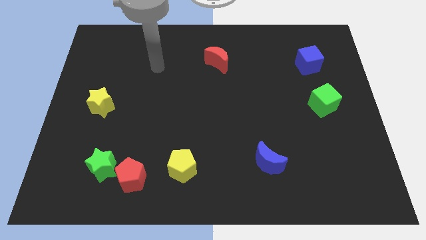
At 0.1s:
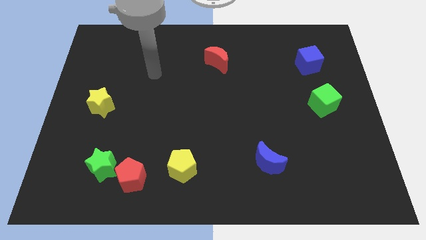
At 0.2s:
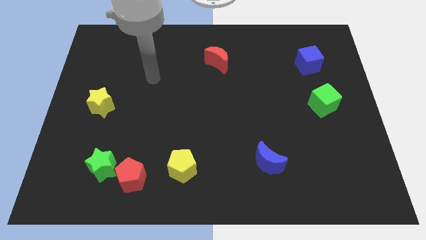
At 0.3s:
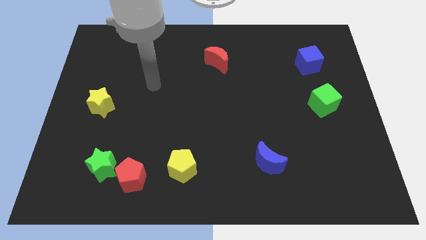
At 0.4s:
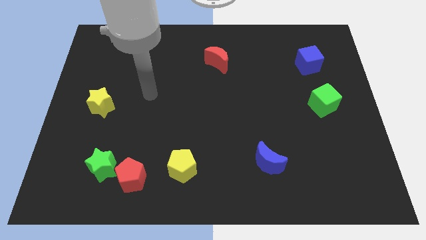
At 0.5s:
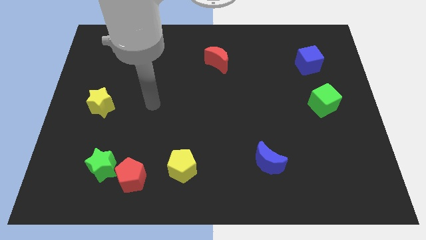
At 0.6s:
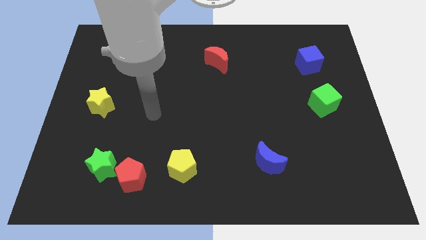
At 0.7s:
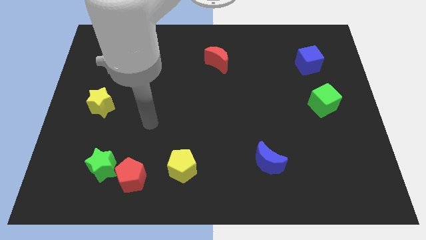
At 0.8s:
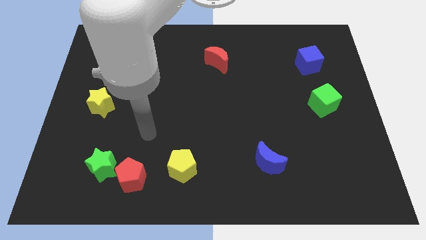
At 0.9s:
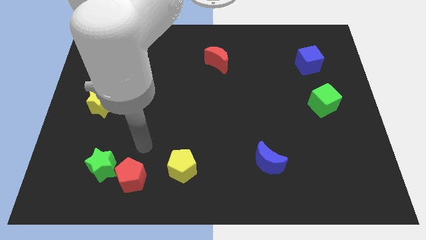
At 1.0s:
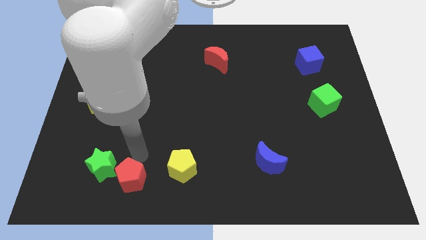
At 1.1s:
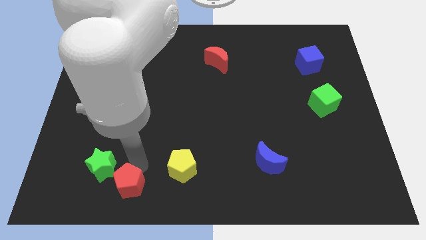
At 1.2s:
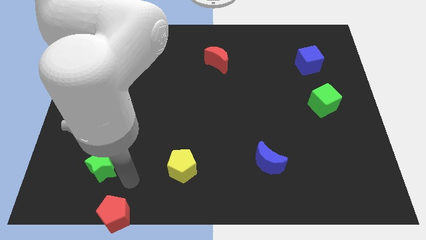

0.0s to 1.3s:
move the green star away from the red pentagon

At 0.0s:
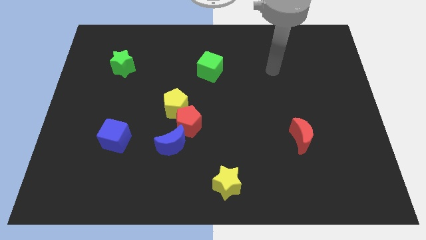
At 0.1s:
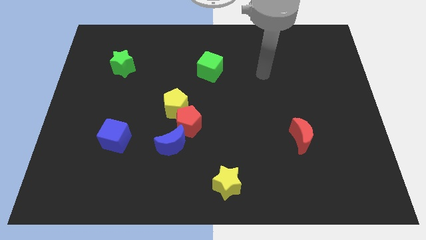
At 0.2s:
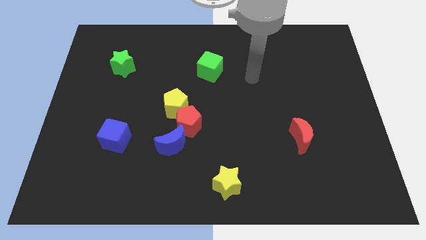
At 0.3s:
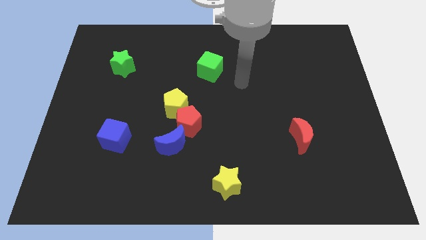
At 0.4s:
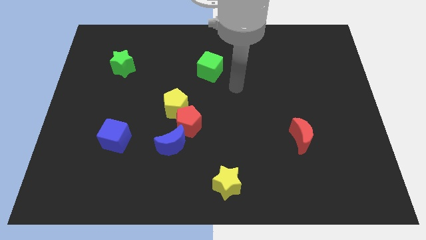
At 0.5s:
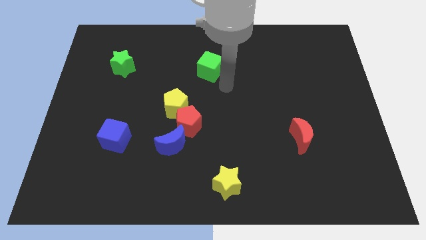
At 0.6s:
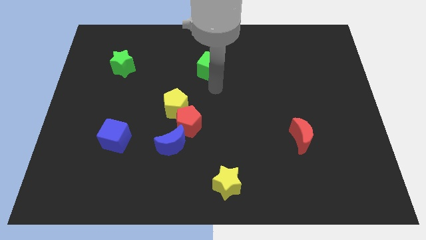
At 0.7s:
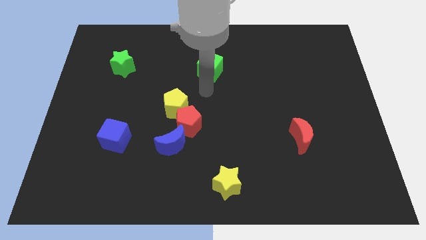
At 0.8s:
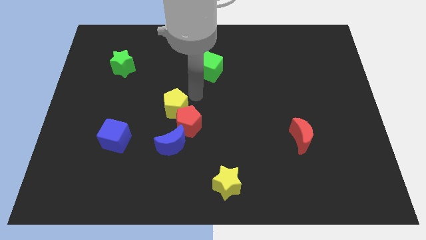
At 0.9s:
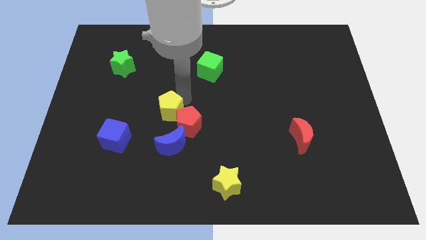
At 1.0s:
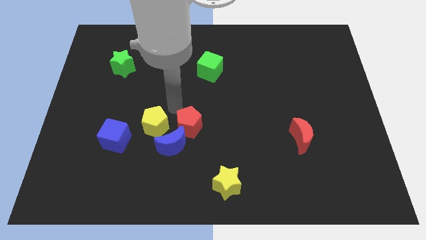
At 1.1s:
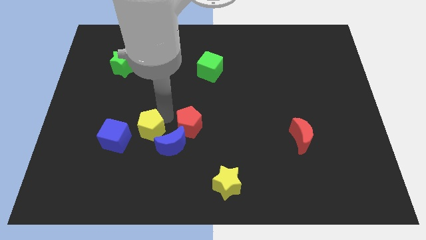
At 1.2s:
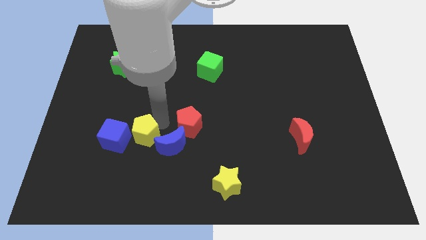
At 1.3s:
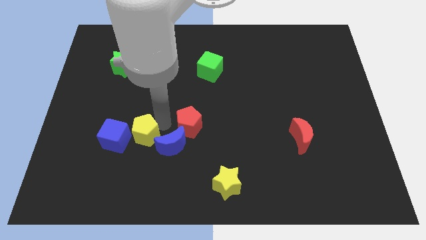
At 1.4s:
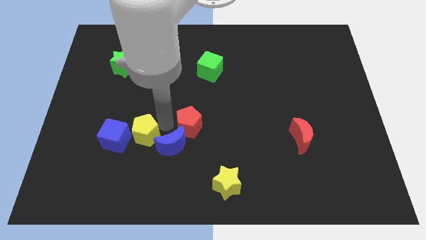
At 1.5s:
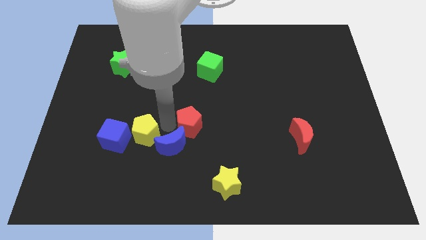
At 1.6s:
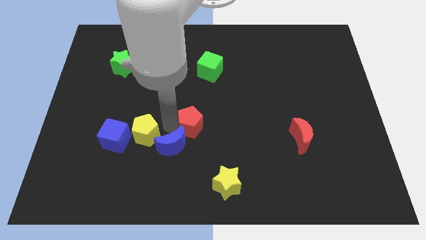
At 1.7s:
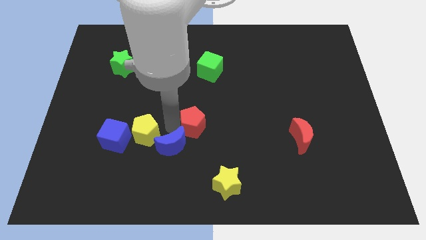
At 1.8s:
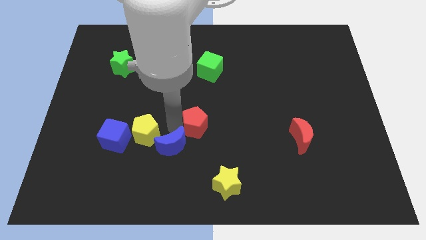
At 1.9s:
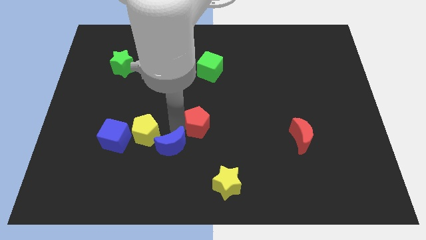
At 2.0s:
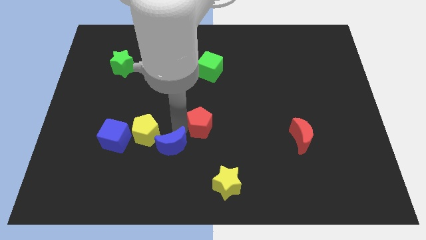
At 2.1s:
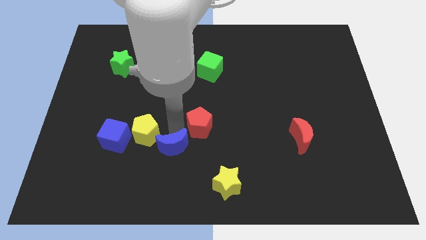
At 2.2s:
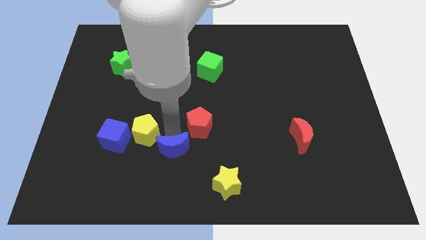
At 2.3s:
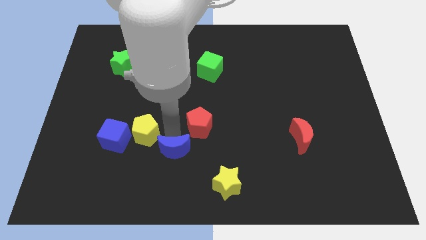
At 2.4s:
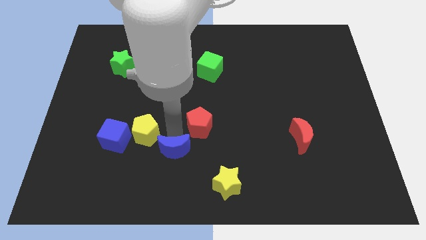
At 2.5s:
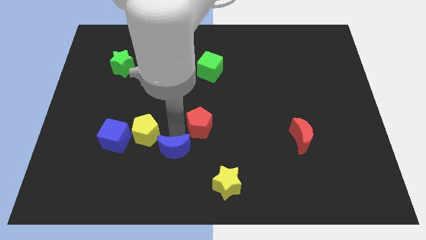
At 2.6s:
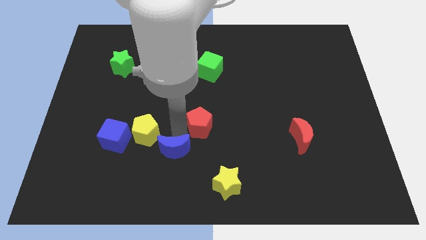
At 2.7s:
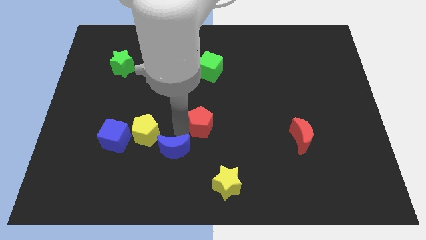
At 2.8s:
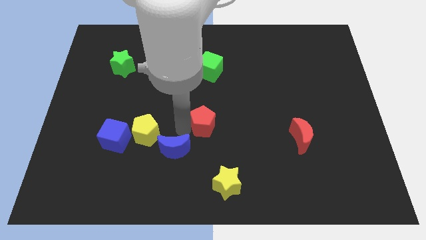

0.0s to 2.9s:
separate the red pentagon from the yellow pentagon and blue moon

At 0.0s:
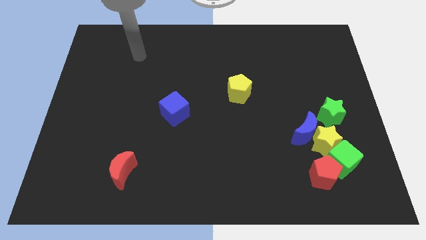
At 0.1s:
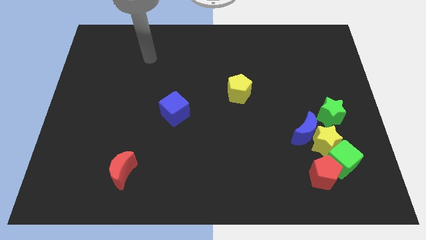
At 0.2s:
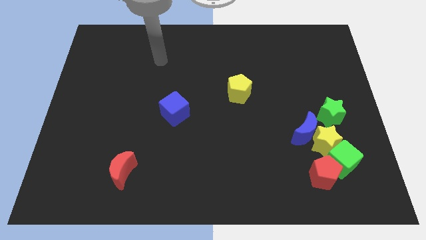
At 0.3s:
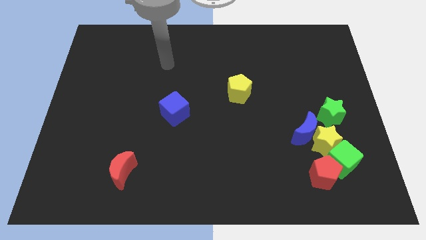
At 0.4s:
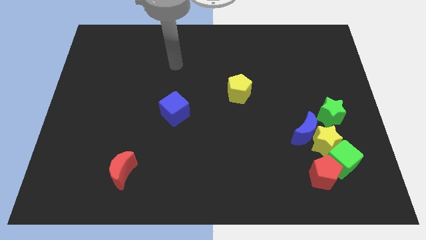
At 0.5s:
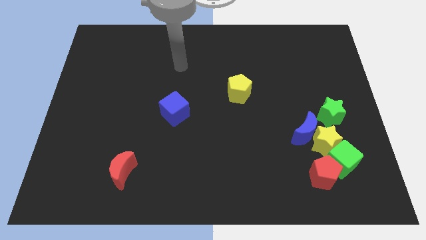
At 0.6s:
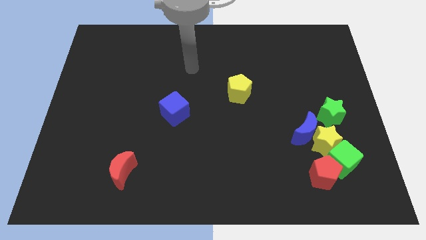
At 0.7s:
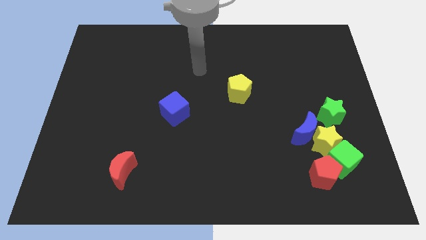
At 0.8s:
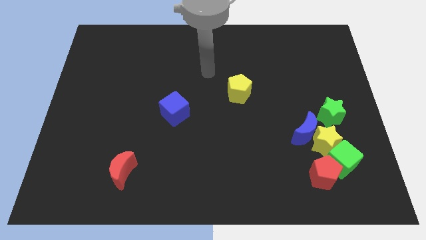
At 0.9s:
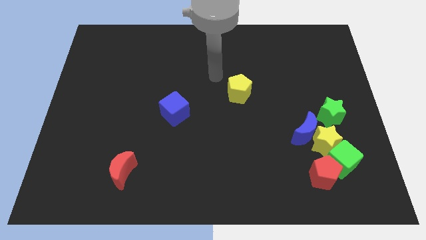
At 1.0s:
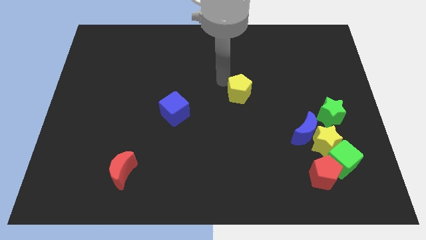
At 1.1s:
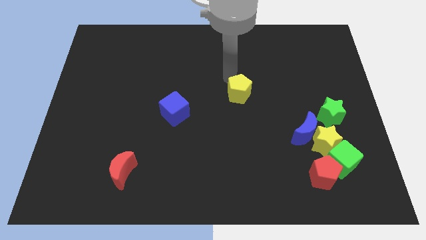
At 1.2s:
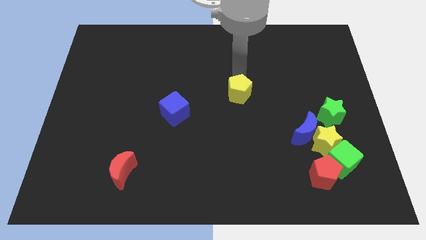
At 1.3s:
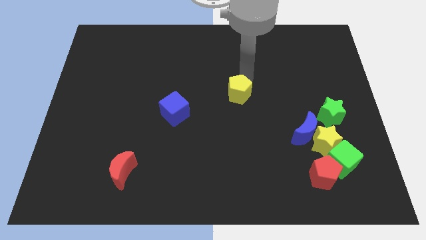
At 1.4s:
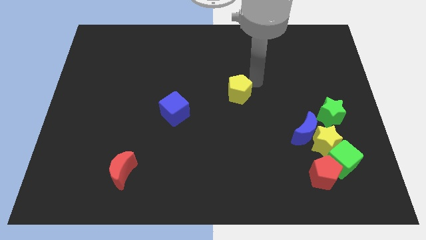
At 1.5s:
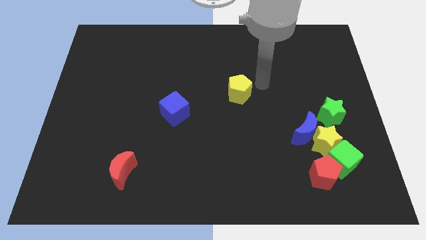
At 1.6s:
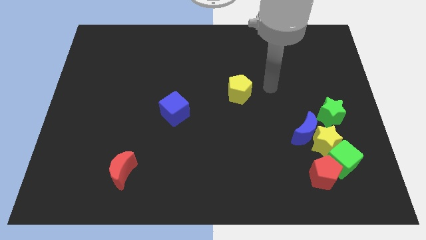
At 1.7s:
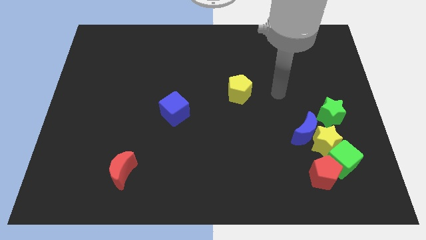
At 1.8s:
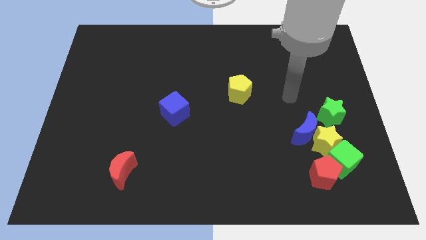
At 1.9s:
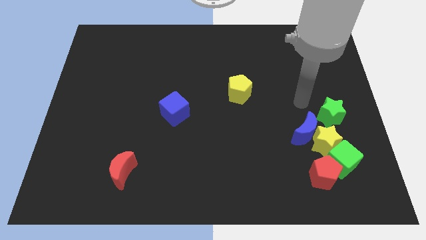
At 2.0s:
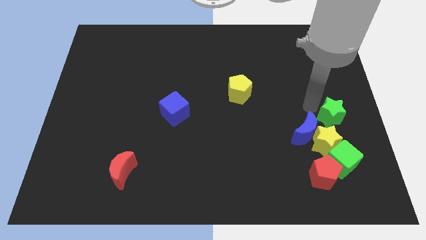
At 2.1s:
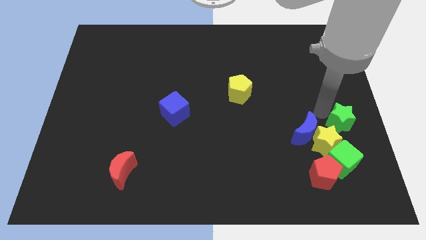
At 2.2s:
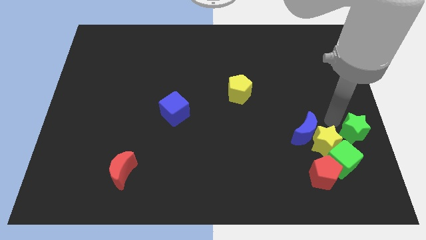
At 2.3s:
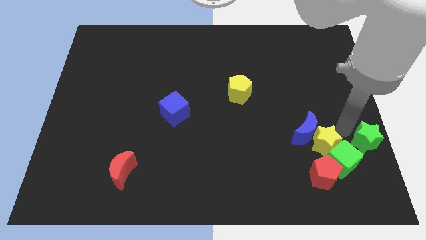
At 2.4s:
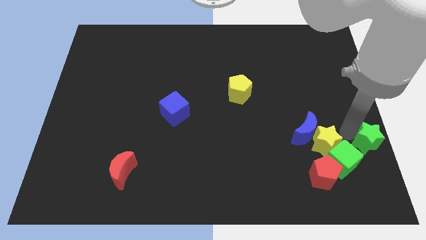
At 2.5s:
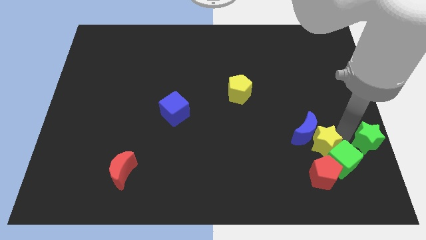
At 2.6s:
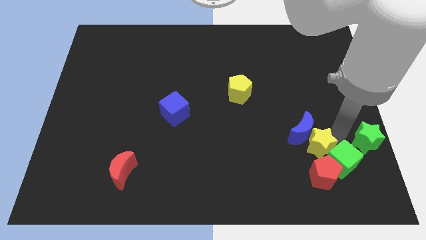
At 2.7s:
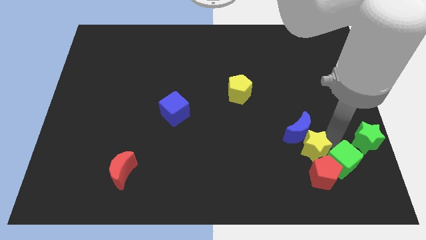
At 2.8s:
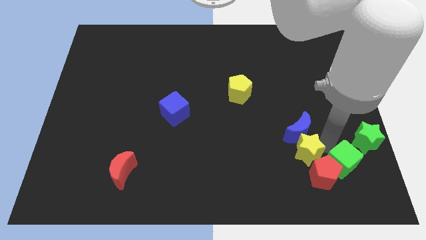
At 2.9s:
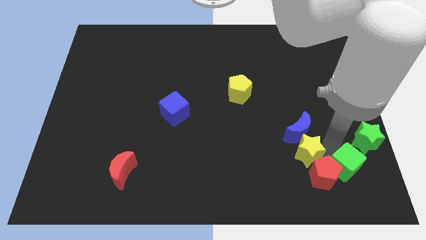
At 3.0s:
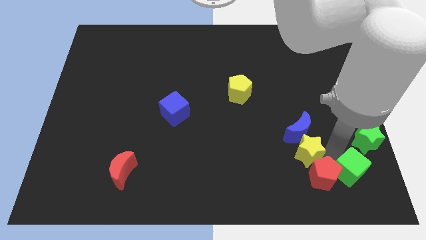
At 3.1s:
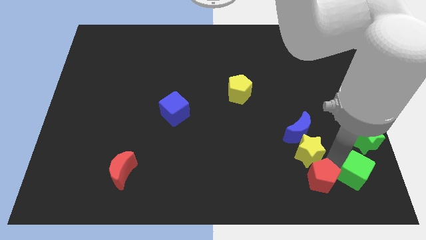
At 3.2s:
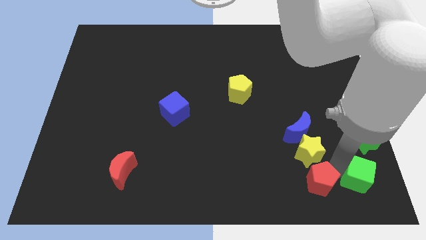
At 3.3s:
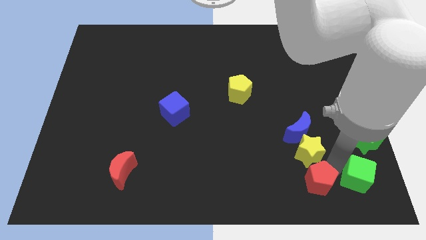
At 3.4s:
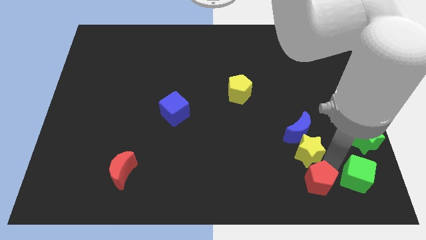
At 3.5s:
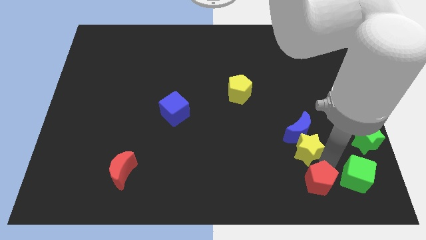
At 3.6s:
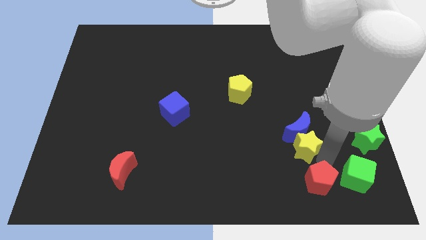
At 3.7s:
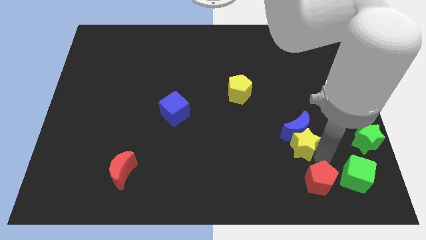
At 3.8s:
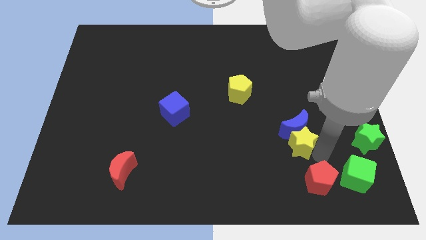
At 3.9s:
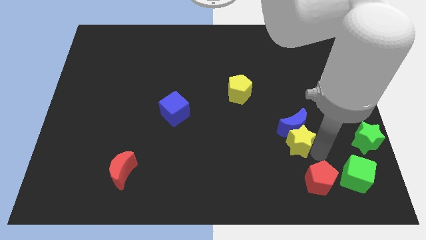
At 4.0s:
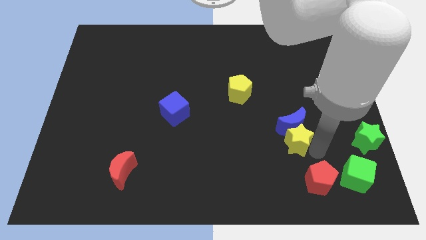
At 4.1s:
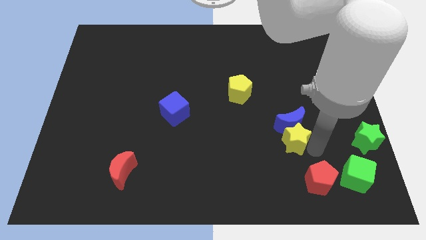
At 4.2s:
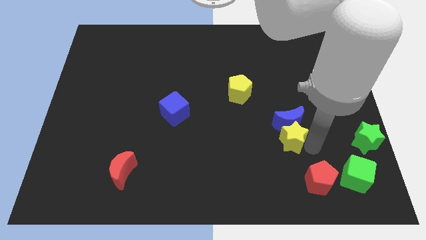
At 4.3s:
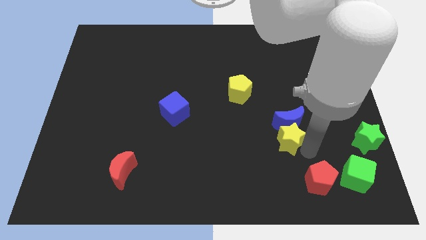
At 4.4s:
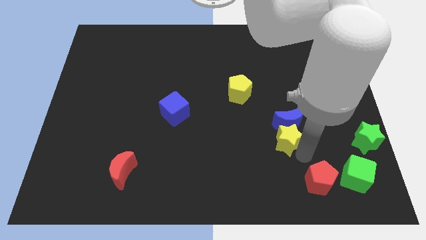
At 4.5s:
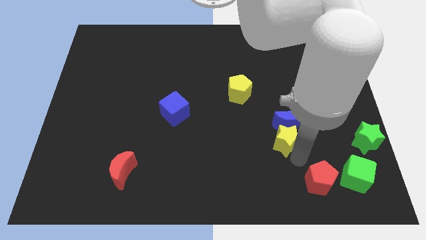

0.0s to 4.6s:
move the yellow star away from the clump

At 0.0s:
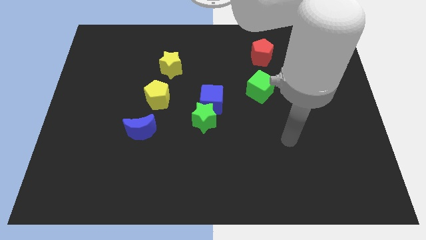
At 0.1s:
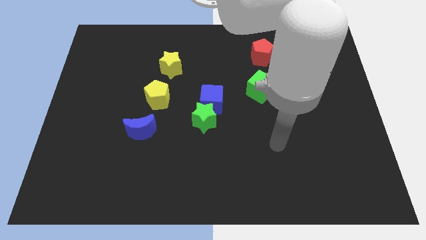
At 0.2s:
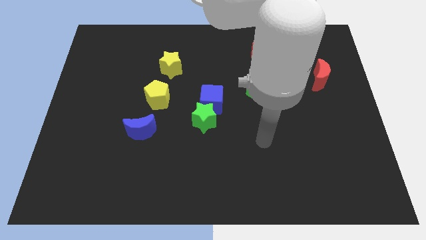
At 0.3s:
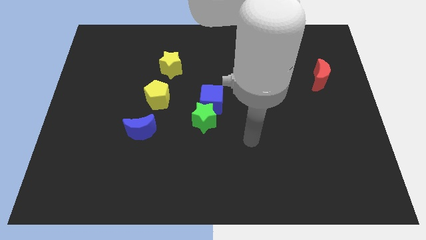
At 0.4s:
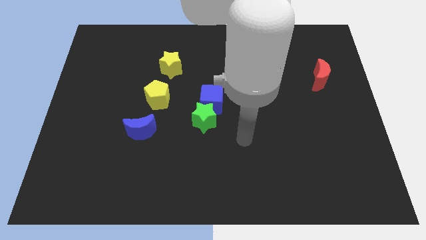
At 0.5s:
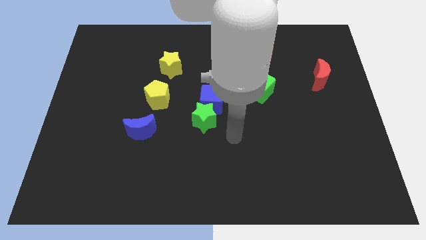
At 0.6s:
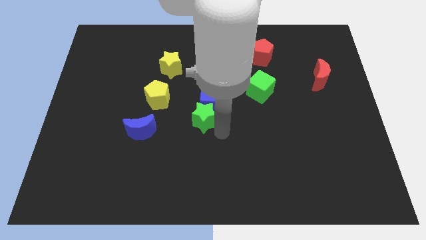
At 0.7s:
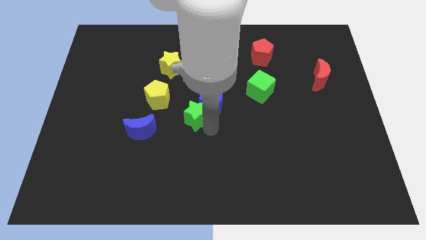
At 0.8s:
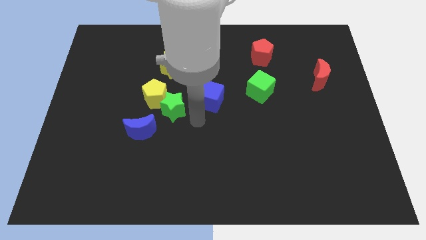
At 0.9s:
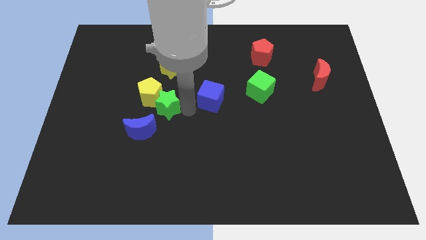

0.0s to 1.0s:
separate the blue cube from the green star
